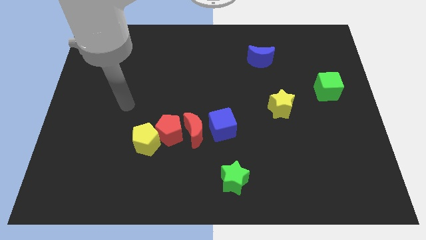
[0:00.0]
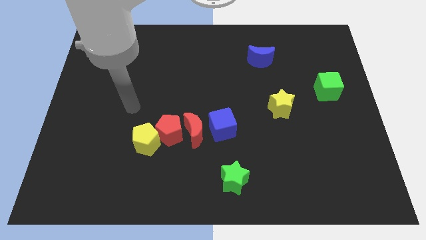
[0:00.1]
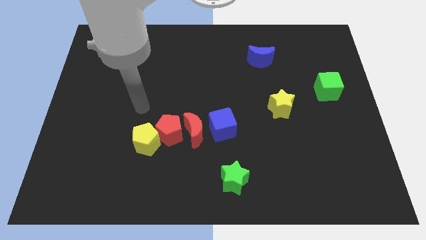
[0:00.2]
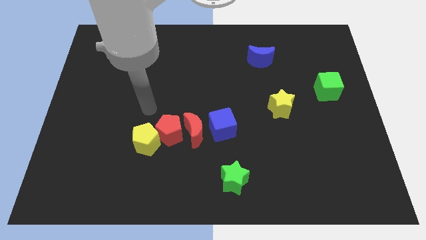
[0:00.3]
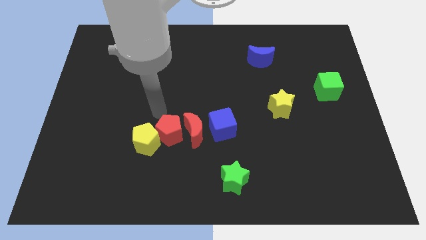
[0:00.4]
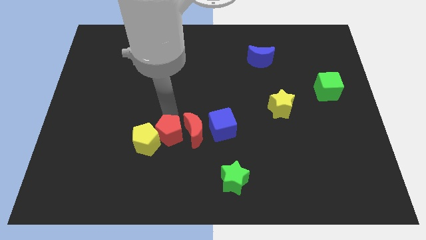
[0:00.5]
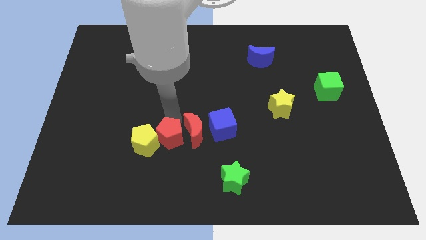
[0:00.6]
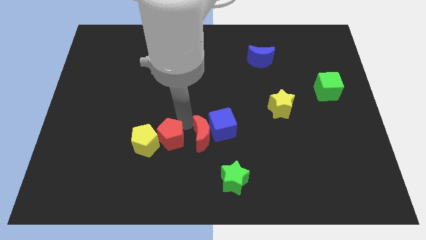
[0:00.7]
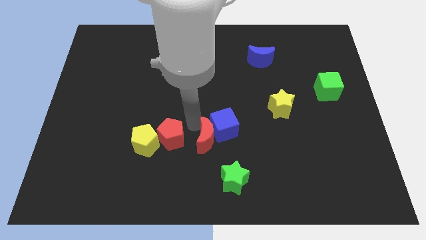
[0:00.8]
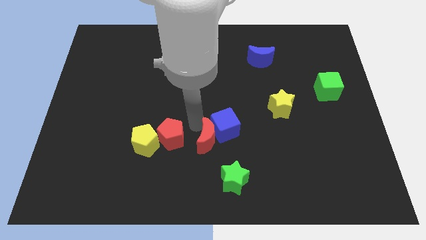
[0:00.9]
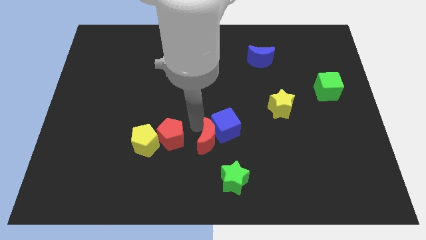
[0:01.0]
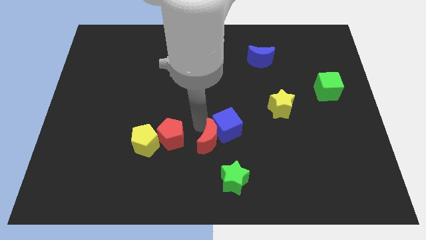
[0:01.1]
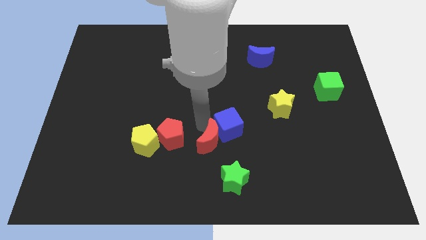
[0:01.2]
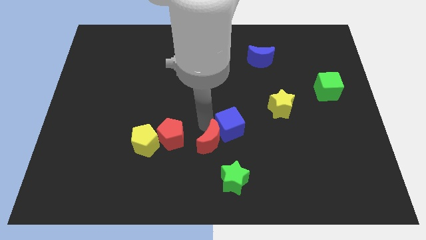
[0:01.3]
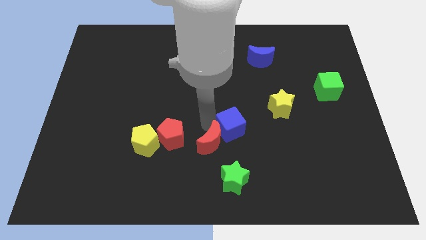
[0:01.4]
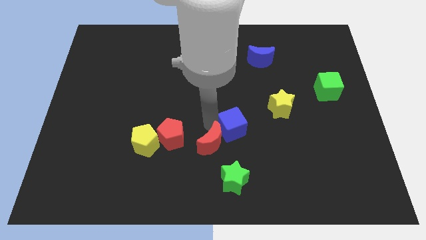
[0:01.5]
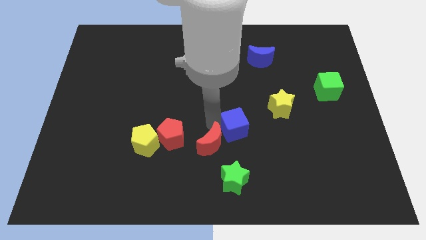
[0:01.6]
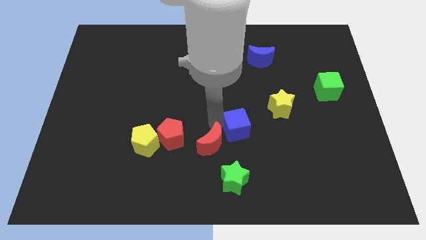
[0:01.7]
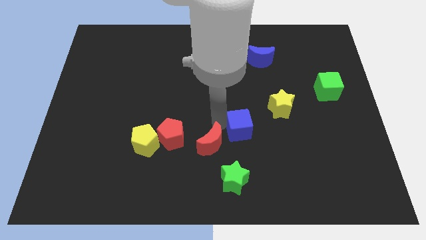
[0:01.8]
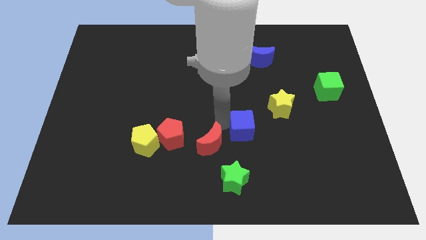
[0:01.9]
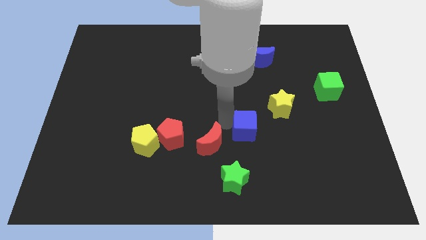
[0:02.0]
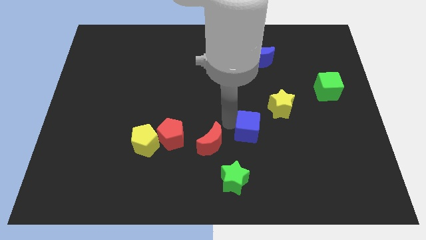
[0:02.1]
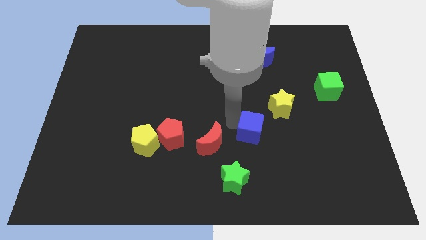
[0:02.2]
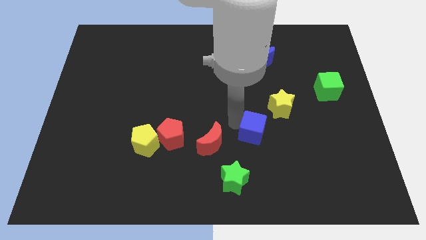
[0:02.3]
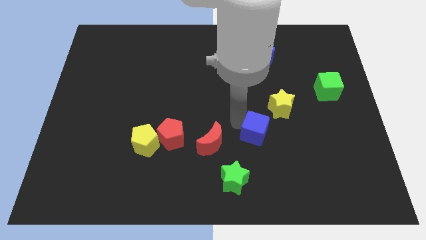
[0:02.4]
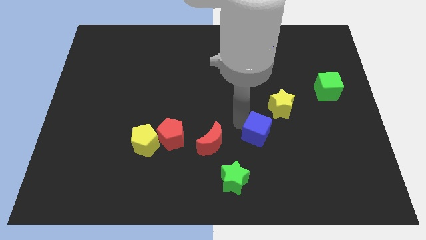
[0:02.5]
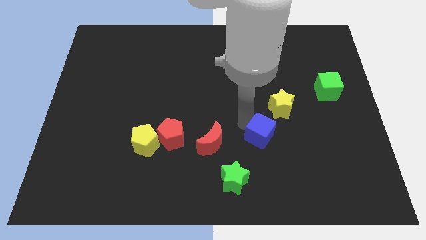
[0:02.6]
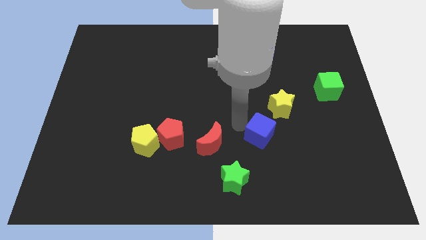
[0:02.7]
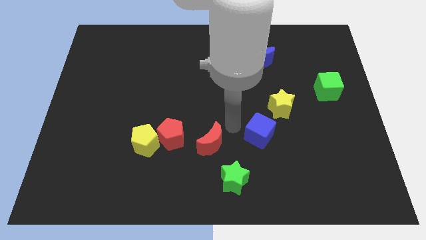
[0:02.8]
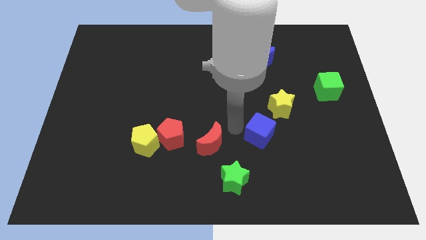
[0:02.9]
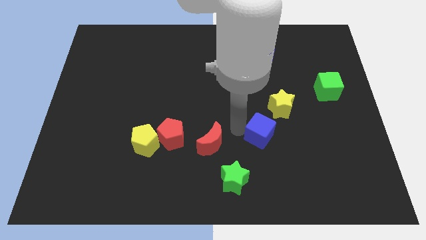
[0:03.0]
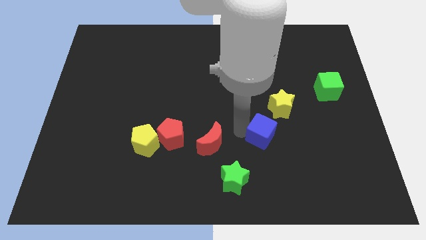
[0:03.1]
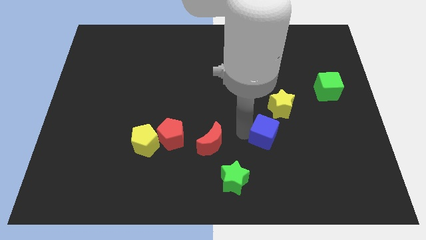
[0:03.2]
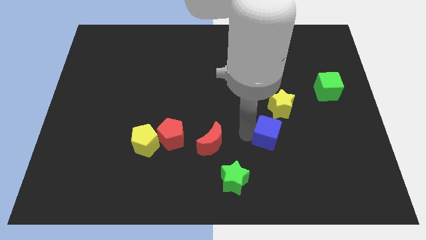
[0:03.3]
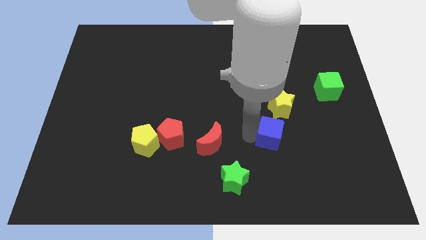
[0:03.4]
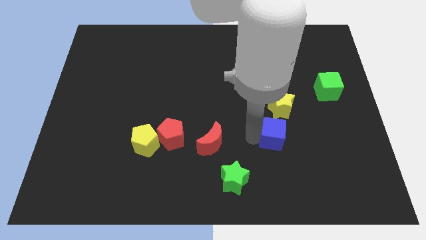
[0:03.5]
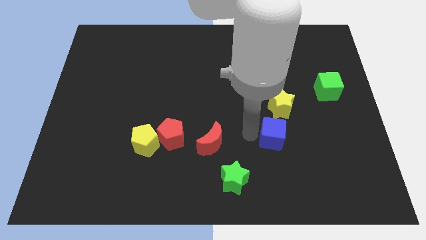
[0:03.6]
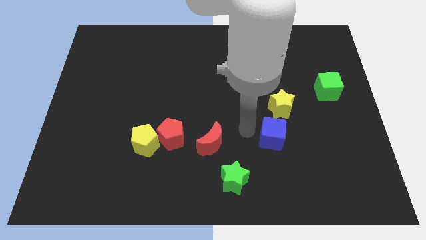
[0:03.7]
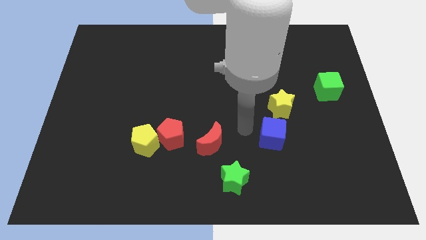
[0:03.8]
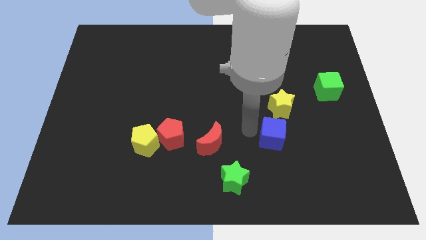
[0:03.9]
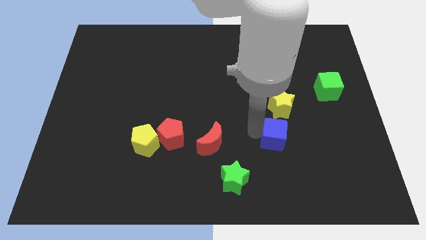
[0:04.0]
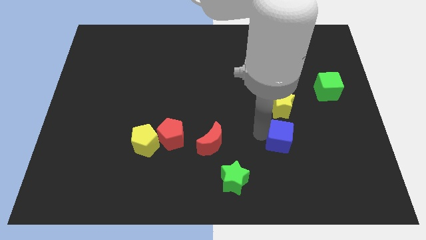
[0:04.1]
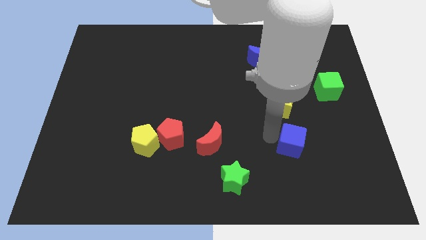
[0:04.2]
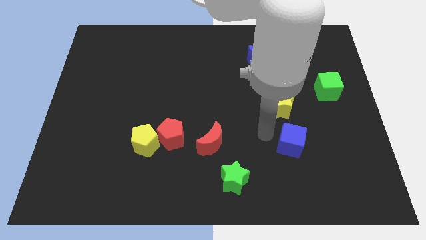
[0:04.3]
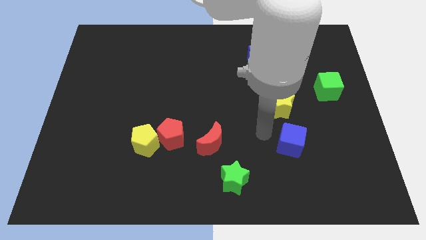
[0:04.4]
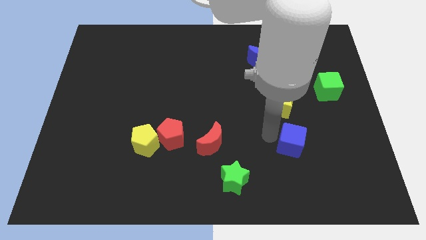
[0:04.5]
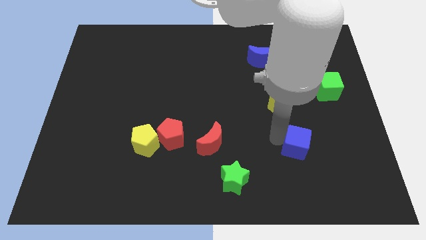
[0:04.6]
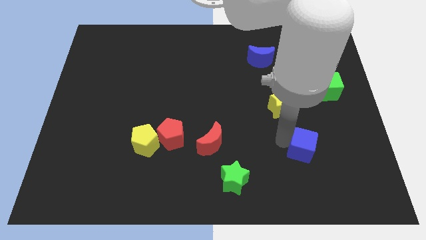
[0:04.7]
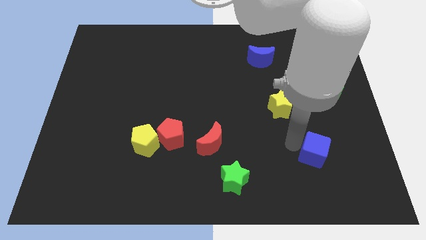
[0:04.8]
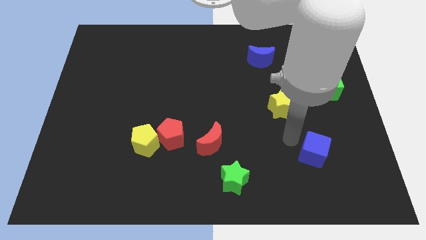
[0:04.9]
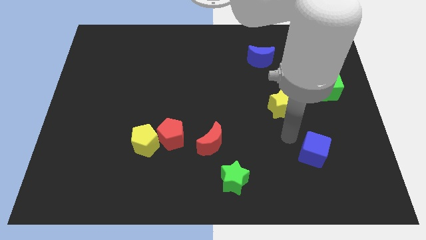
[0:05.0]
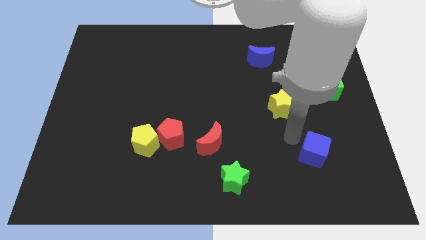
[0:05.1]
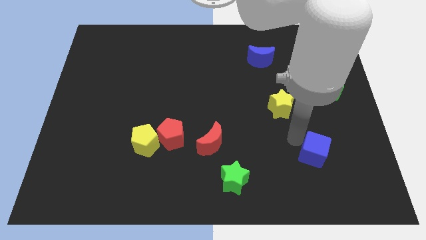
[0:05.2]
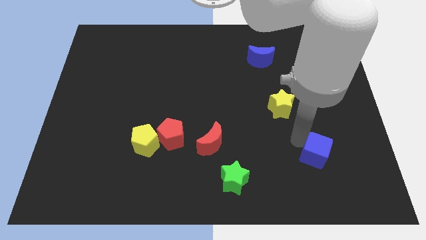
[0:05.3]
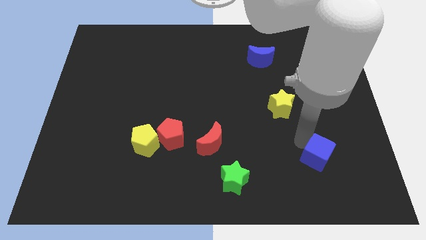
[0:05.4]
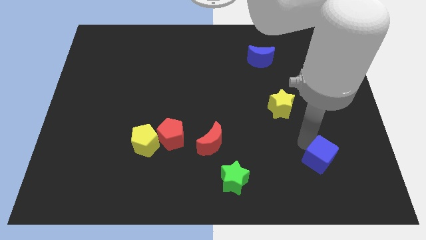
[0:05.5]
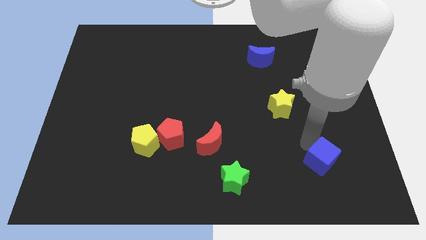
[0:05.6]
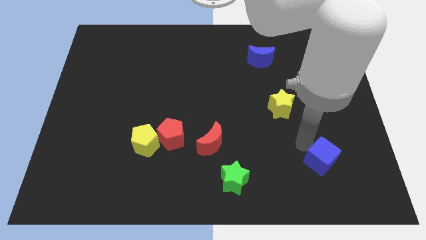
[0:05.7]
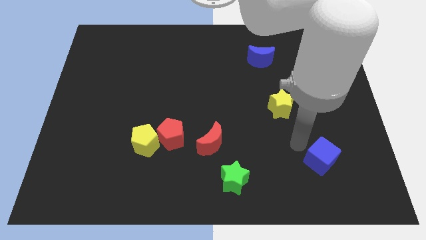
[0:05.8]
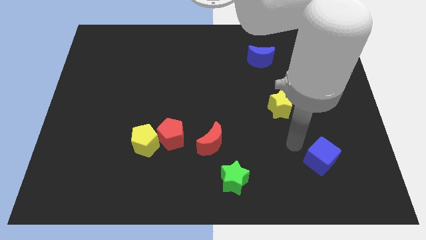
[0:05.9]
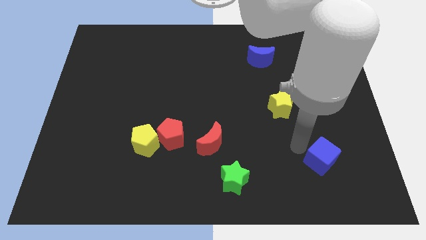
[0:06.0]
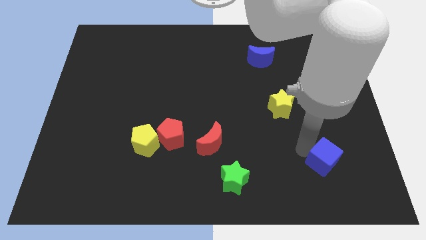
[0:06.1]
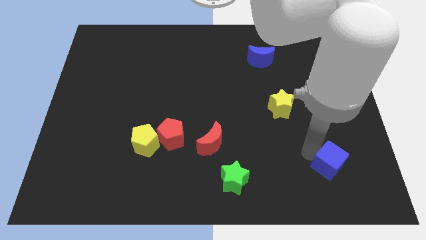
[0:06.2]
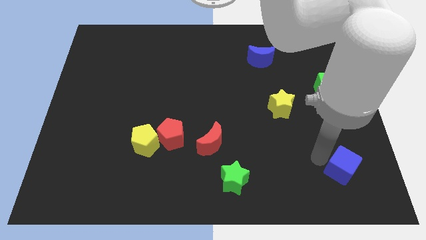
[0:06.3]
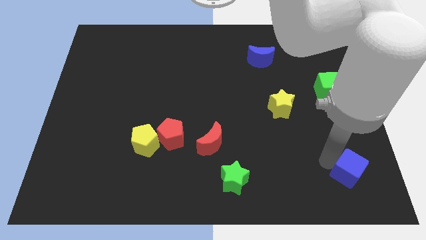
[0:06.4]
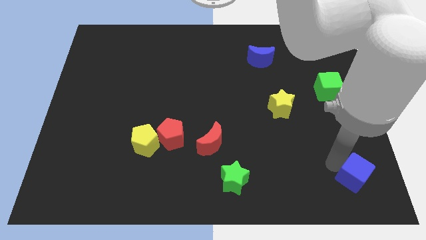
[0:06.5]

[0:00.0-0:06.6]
push the blue cube to the bottom right
